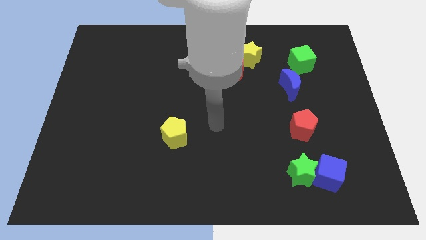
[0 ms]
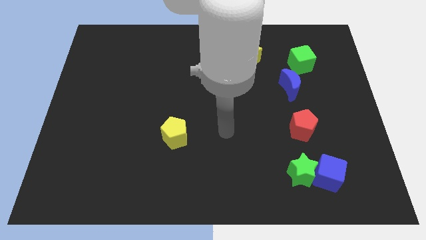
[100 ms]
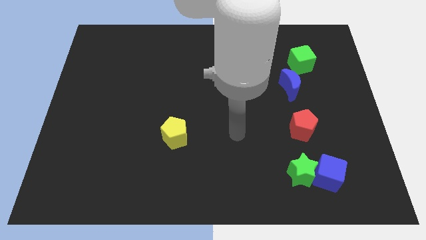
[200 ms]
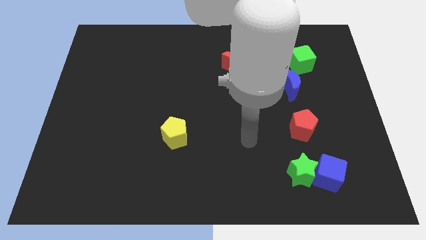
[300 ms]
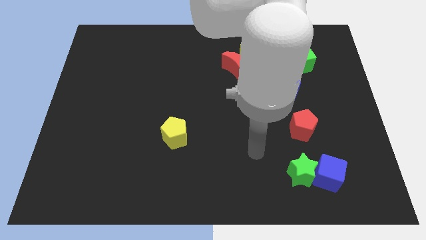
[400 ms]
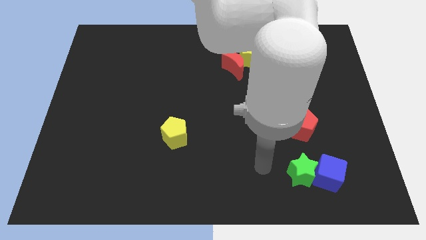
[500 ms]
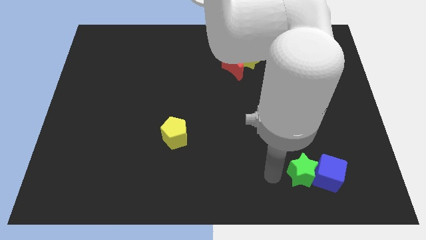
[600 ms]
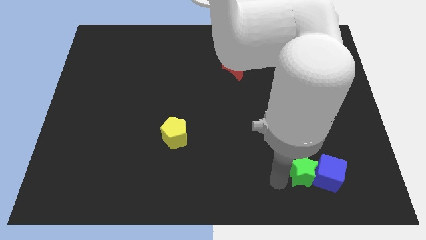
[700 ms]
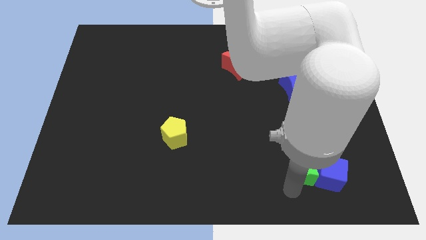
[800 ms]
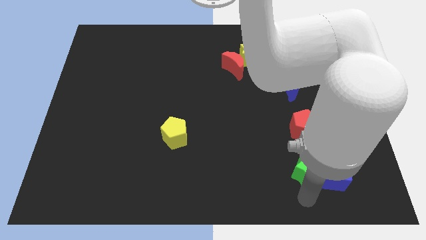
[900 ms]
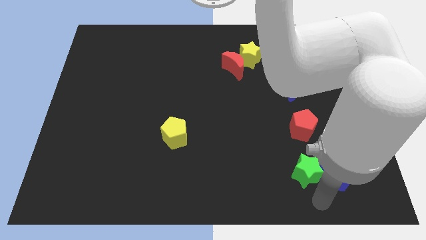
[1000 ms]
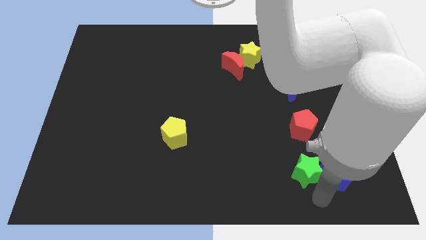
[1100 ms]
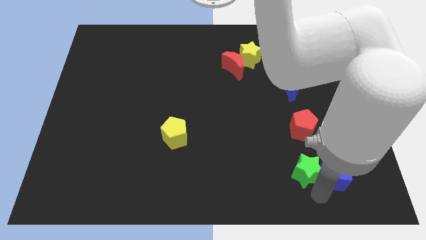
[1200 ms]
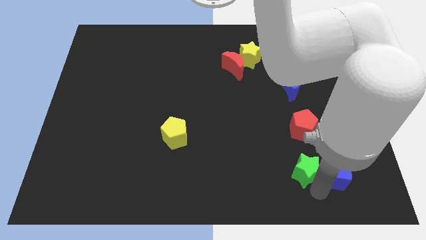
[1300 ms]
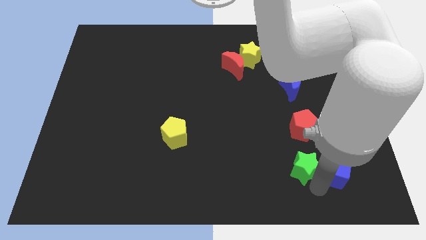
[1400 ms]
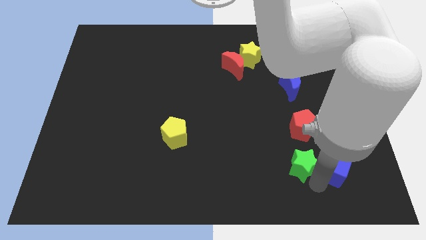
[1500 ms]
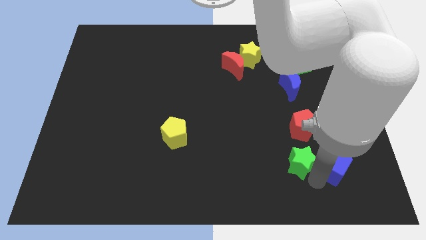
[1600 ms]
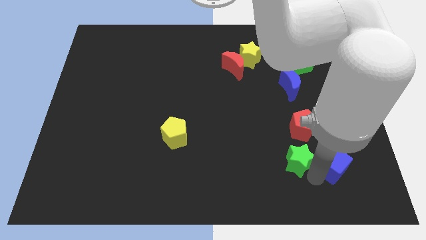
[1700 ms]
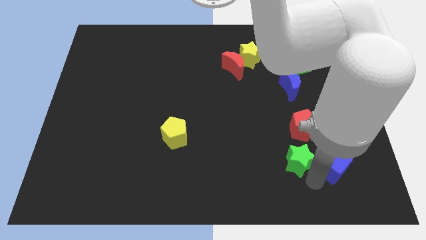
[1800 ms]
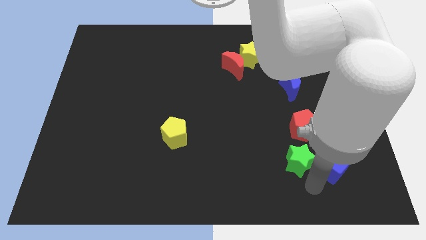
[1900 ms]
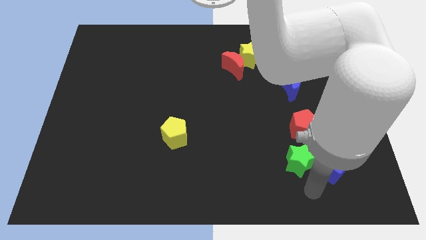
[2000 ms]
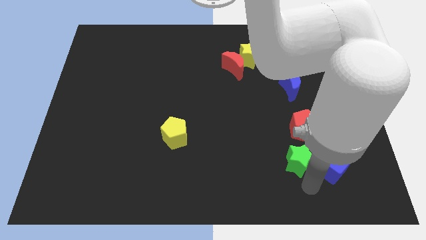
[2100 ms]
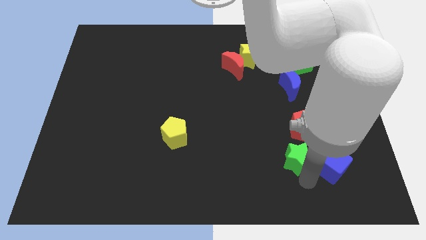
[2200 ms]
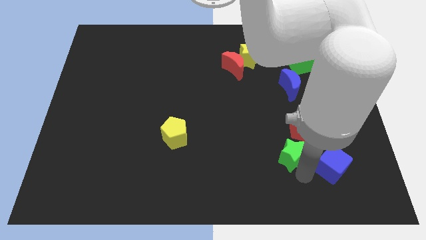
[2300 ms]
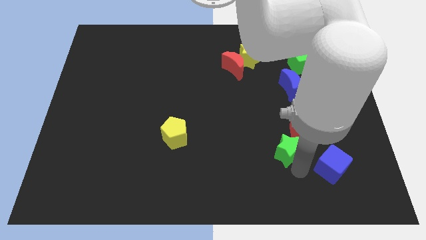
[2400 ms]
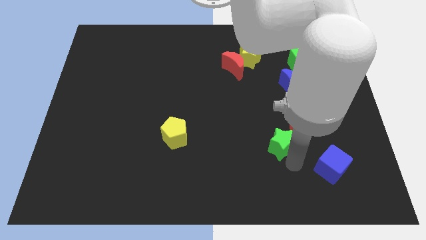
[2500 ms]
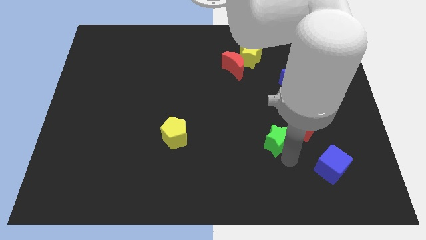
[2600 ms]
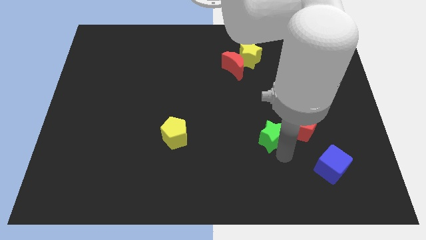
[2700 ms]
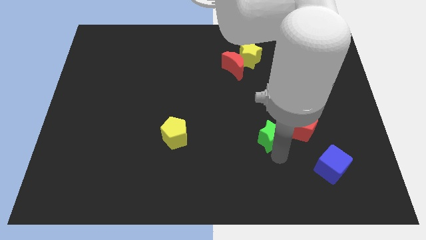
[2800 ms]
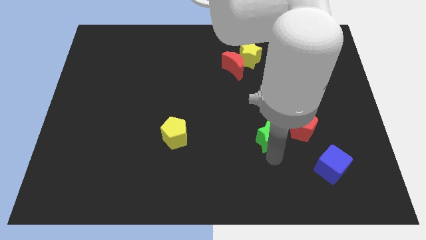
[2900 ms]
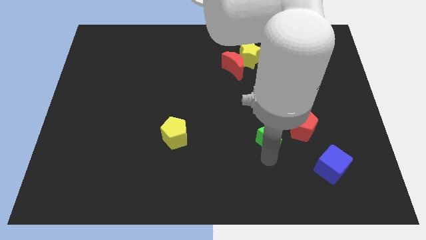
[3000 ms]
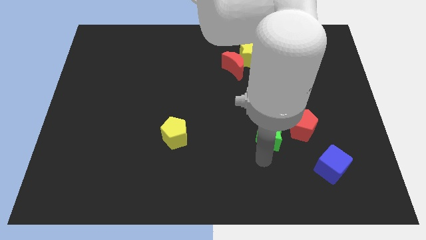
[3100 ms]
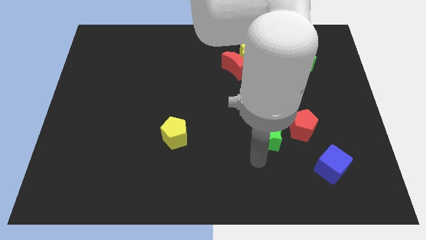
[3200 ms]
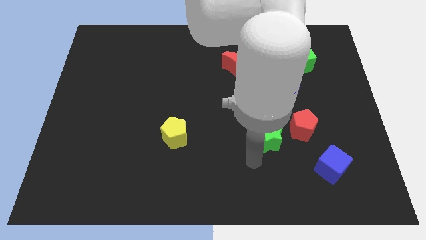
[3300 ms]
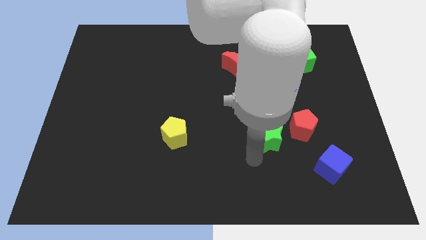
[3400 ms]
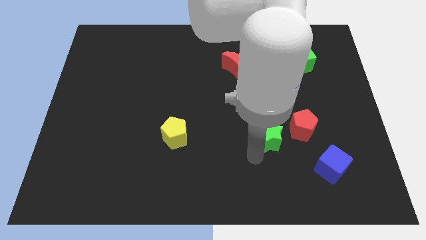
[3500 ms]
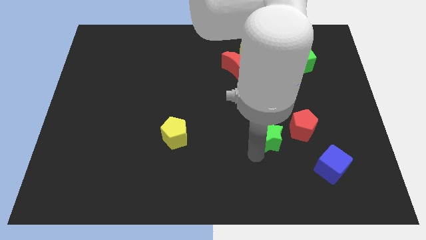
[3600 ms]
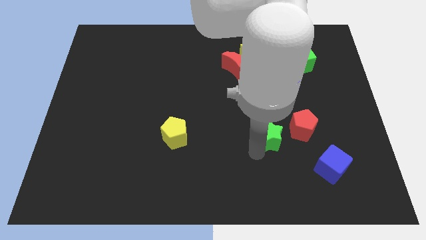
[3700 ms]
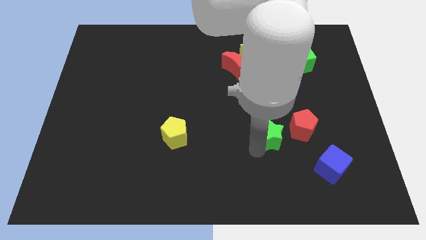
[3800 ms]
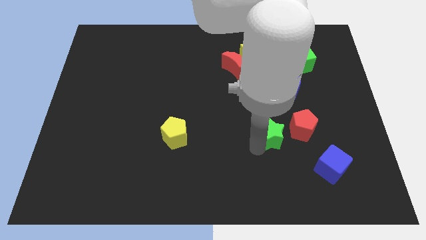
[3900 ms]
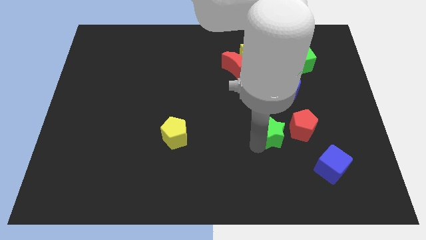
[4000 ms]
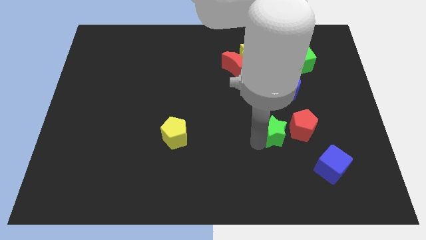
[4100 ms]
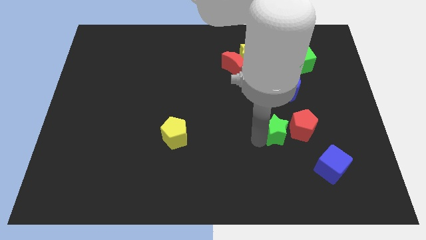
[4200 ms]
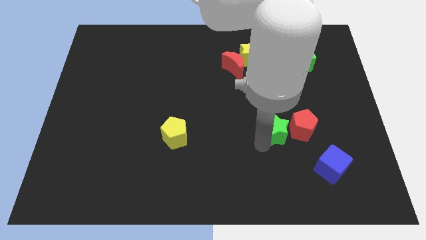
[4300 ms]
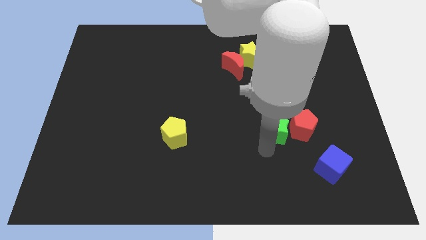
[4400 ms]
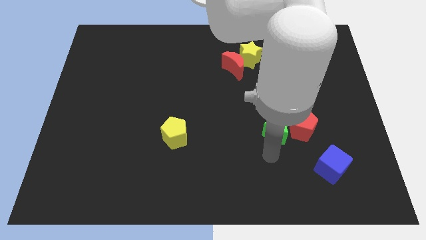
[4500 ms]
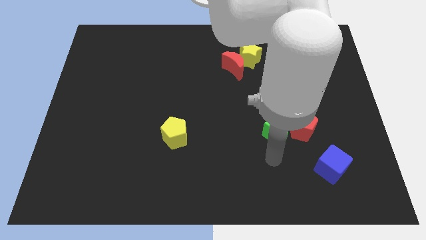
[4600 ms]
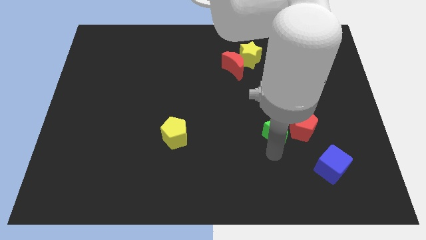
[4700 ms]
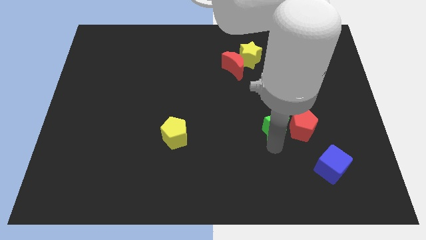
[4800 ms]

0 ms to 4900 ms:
slide the green star diagonally up and to the left of the red pentagon

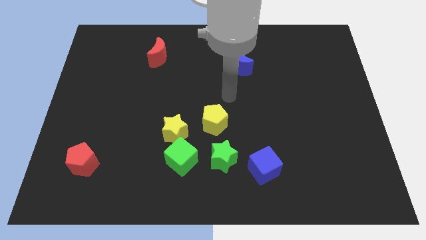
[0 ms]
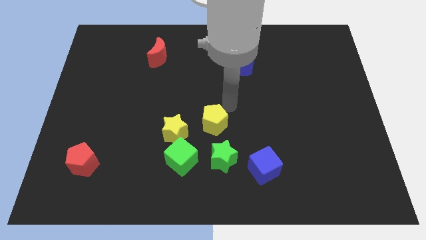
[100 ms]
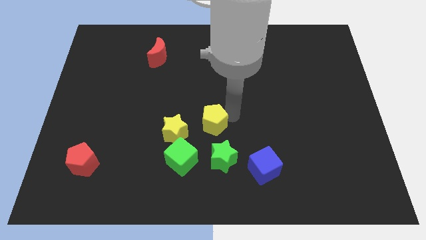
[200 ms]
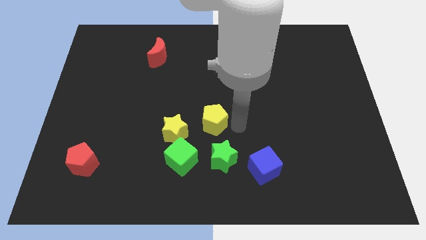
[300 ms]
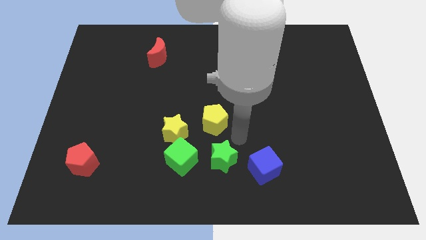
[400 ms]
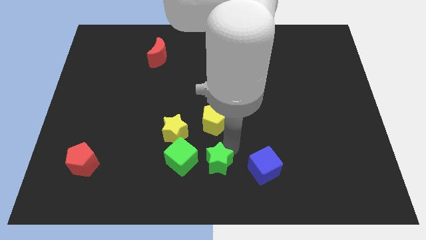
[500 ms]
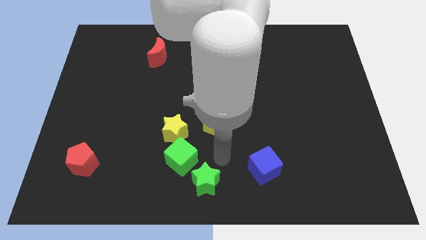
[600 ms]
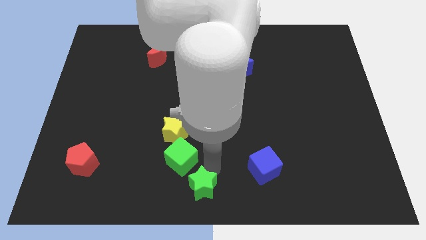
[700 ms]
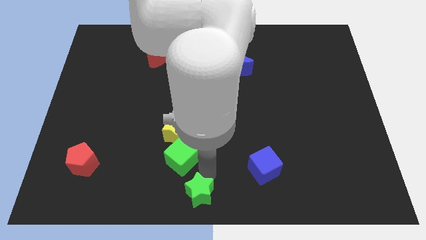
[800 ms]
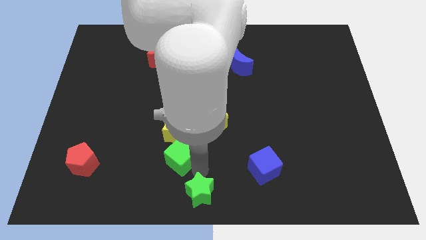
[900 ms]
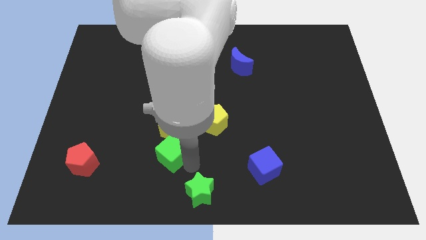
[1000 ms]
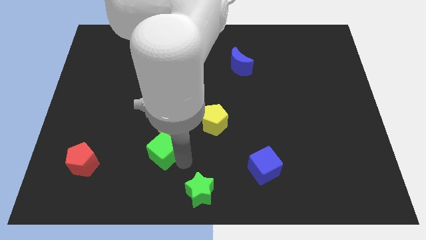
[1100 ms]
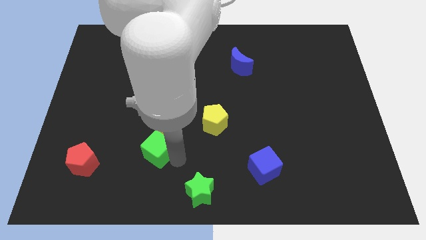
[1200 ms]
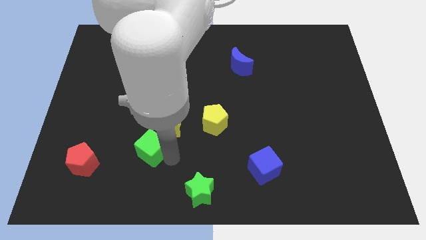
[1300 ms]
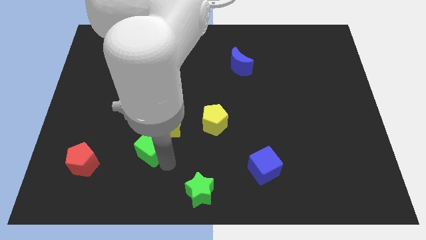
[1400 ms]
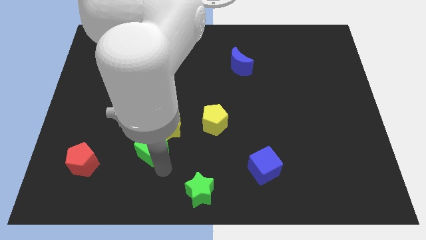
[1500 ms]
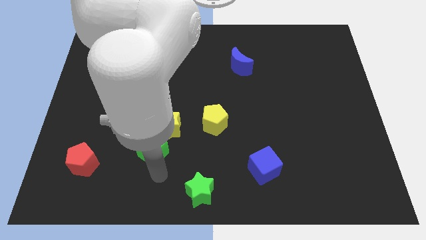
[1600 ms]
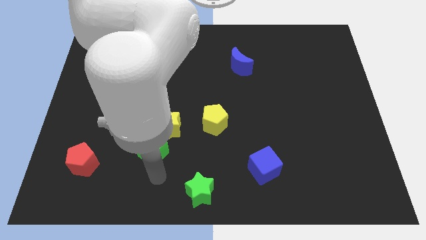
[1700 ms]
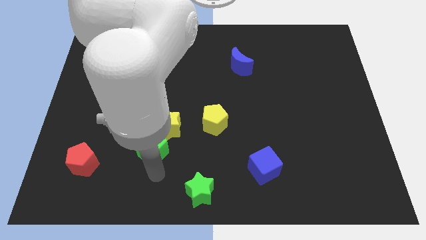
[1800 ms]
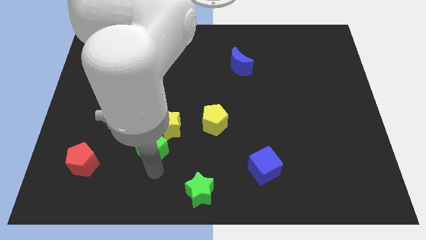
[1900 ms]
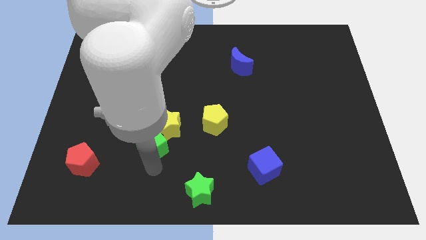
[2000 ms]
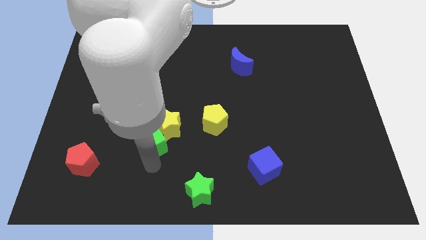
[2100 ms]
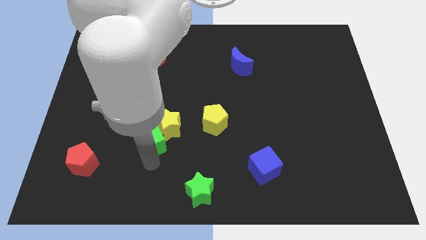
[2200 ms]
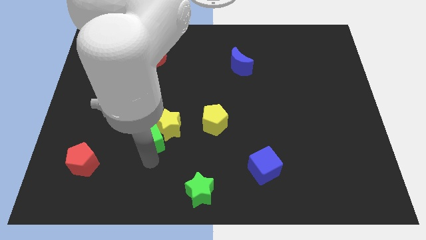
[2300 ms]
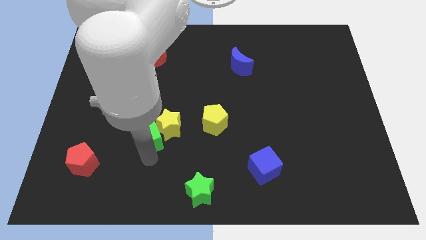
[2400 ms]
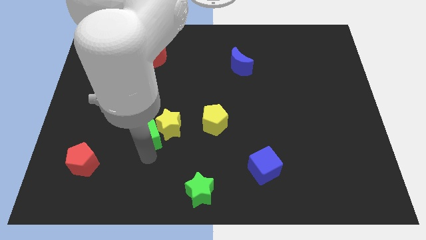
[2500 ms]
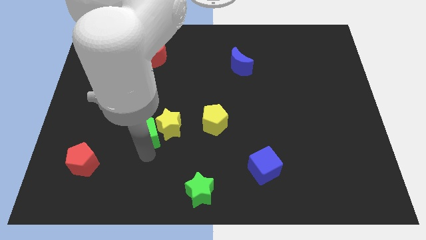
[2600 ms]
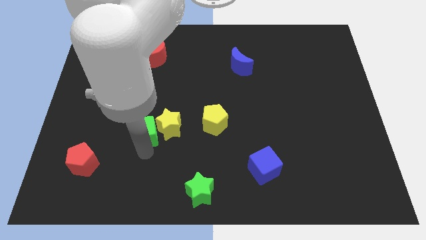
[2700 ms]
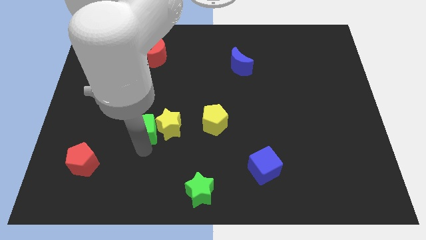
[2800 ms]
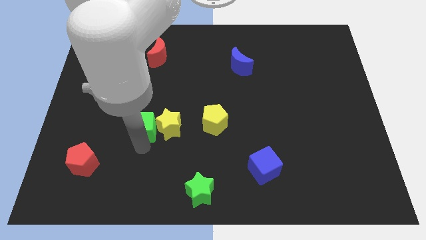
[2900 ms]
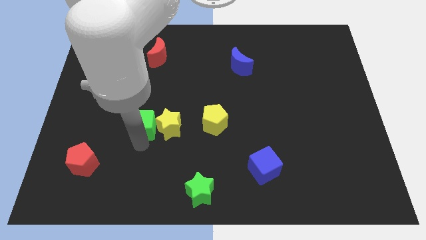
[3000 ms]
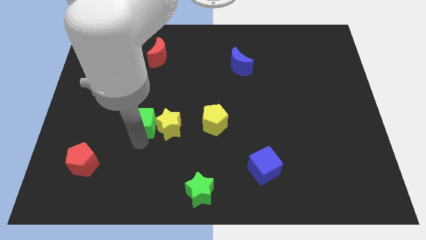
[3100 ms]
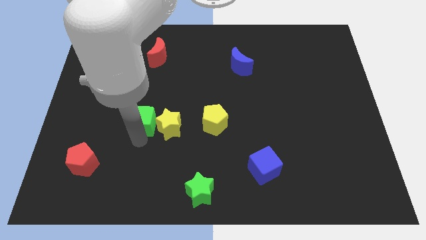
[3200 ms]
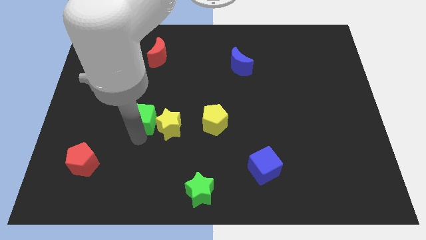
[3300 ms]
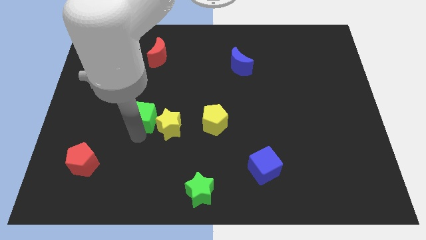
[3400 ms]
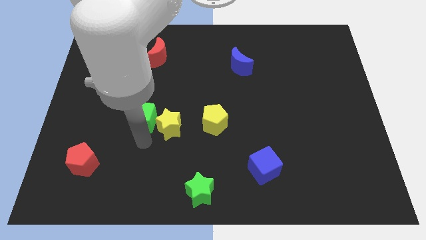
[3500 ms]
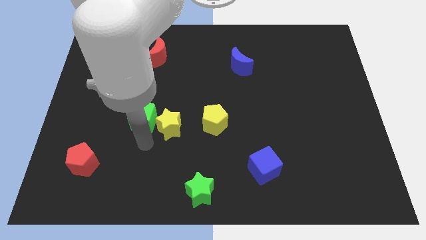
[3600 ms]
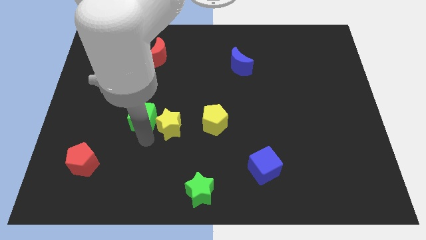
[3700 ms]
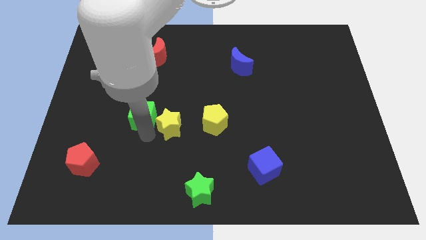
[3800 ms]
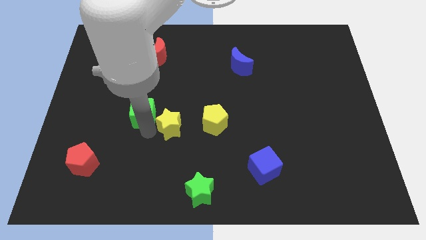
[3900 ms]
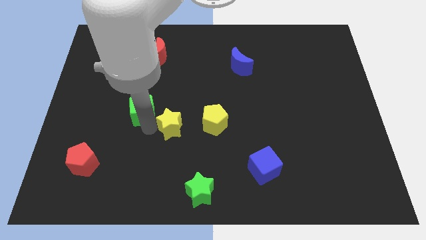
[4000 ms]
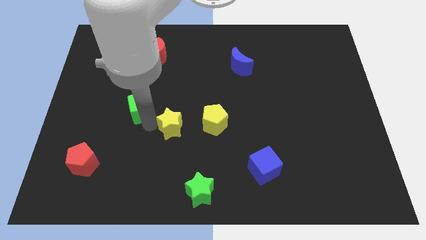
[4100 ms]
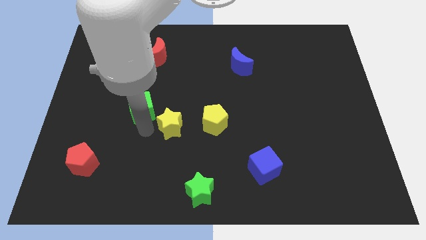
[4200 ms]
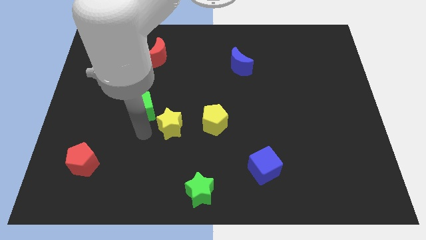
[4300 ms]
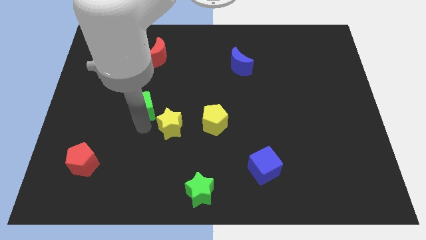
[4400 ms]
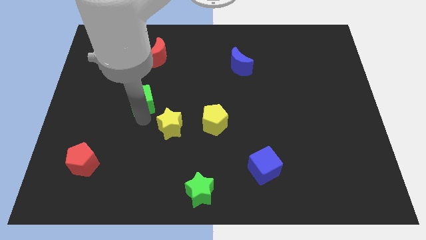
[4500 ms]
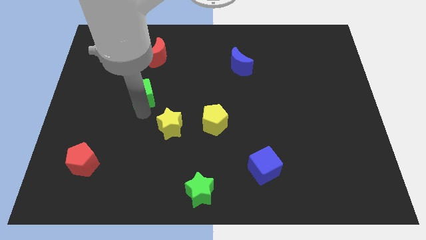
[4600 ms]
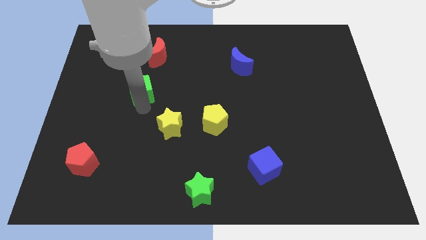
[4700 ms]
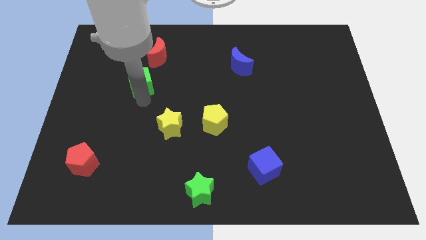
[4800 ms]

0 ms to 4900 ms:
move the green cube to the bottom left side of the red moon
